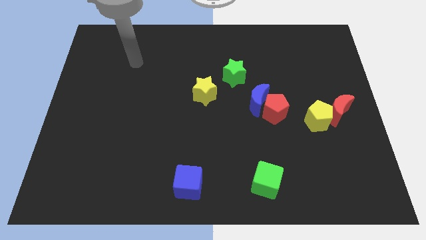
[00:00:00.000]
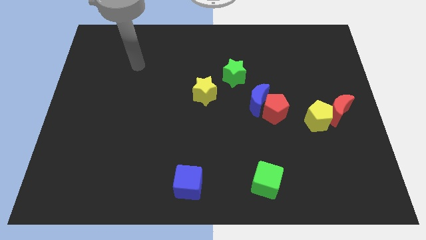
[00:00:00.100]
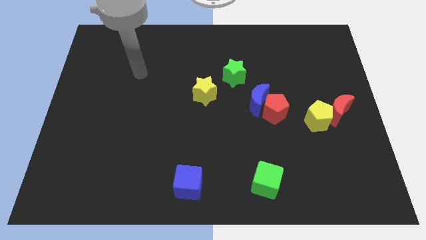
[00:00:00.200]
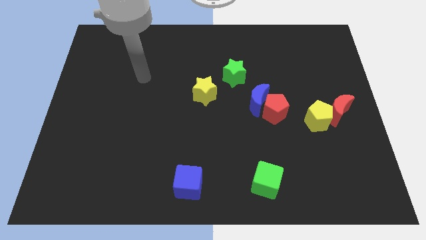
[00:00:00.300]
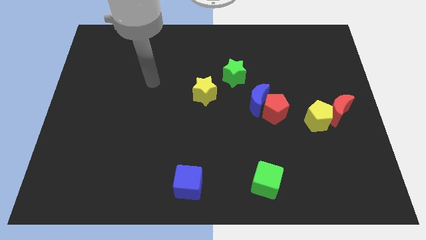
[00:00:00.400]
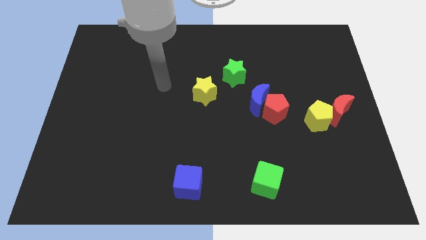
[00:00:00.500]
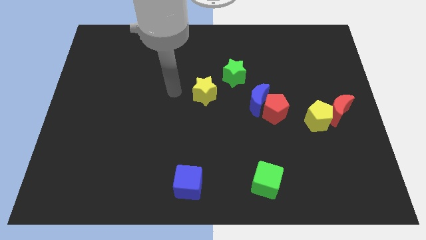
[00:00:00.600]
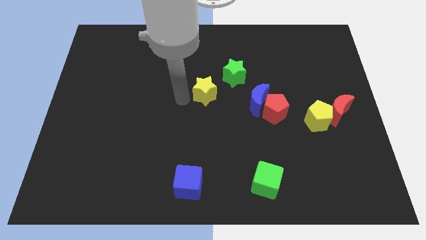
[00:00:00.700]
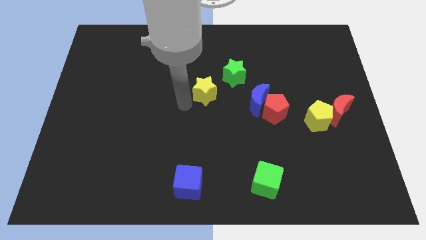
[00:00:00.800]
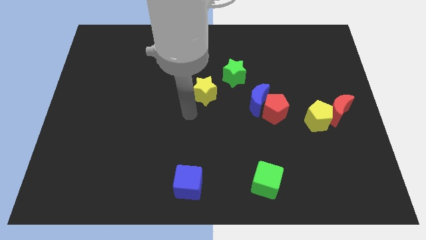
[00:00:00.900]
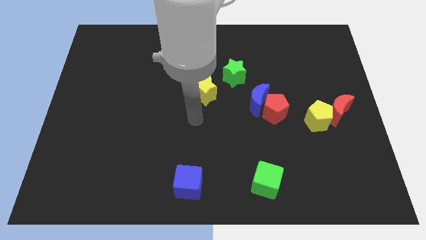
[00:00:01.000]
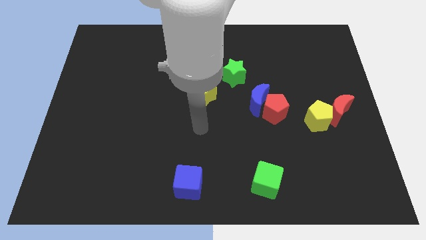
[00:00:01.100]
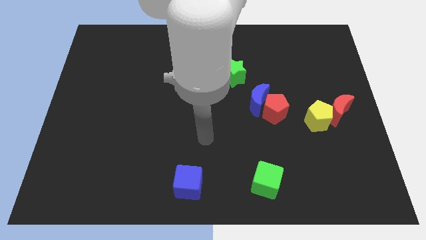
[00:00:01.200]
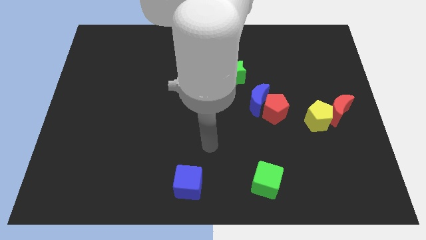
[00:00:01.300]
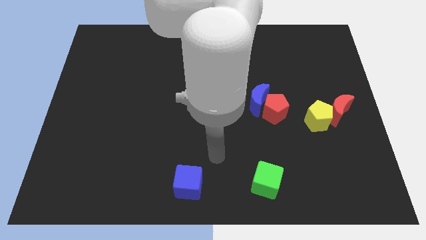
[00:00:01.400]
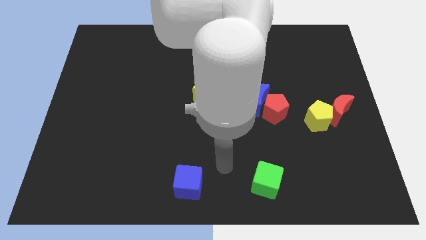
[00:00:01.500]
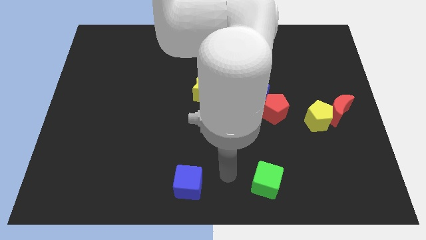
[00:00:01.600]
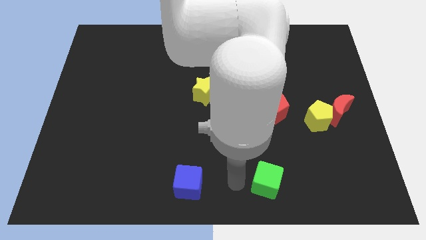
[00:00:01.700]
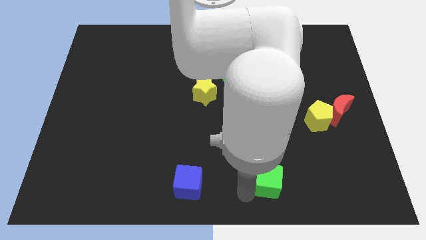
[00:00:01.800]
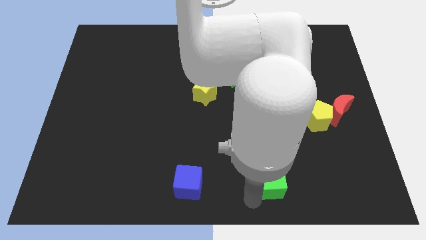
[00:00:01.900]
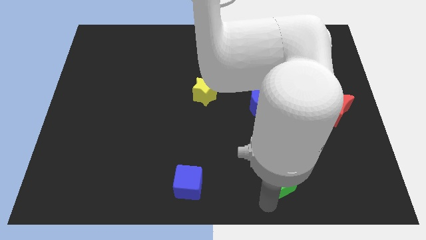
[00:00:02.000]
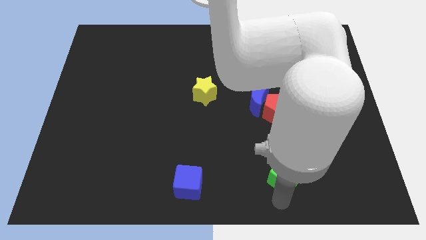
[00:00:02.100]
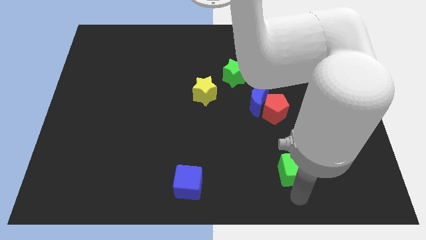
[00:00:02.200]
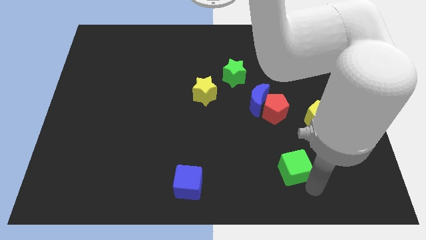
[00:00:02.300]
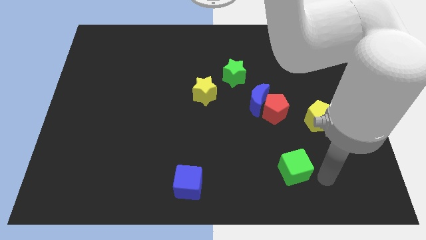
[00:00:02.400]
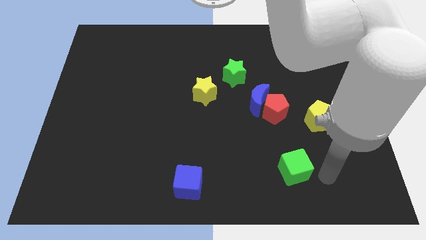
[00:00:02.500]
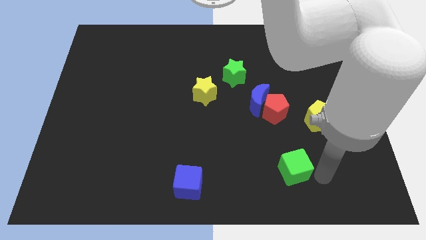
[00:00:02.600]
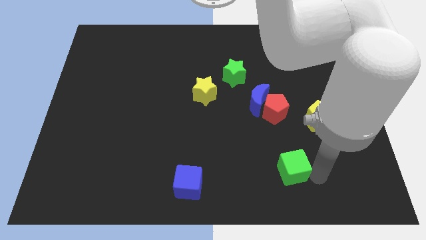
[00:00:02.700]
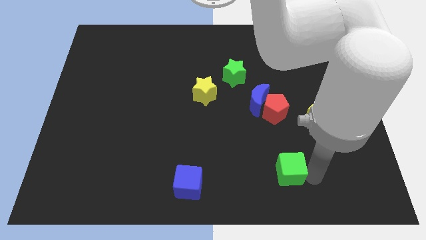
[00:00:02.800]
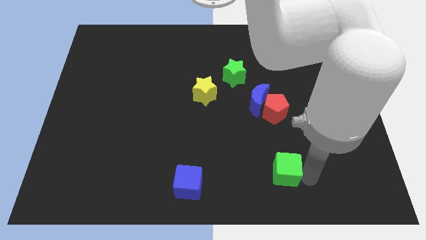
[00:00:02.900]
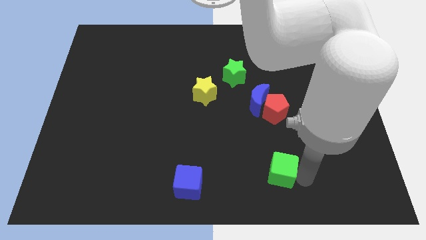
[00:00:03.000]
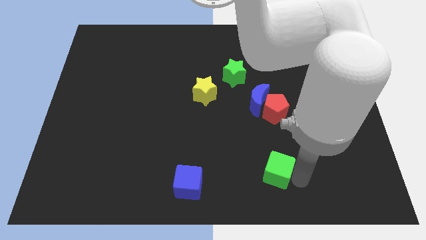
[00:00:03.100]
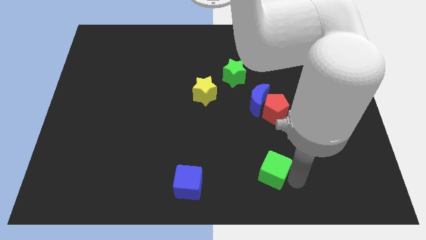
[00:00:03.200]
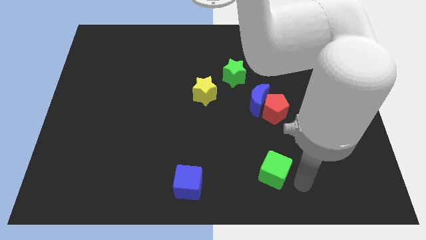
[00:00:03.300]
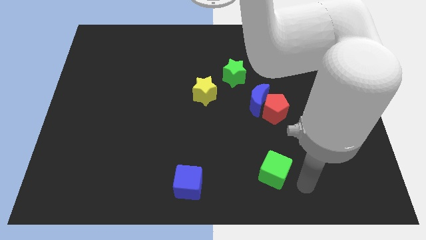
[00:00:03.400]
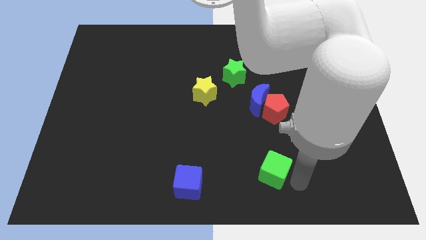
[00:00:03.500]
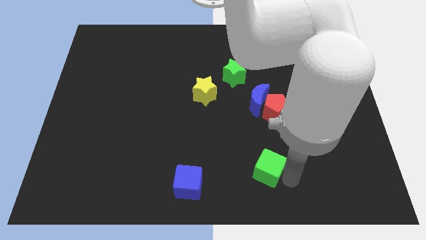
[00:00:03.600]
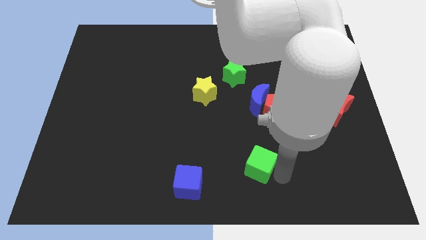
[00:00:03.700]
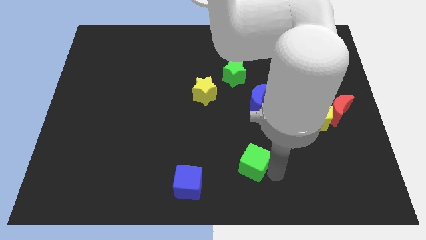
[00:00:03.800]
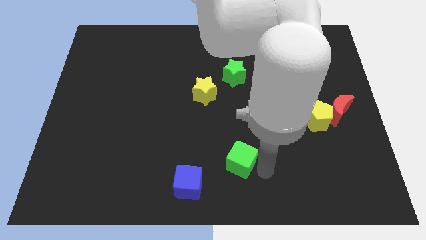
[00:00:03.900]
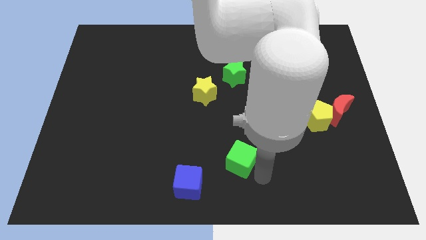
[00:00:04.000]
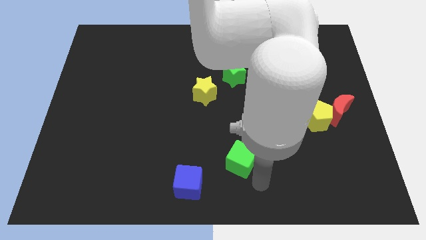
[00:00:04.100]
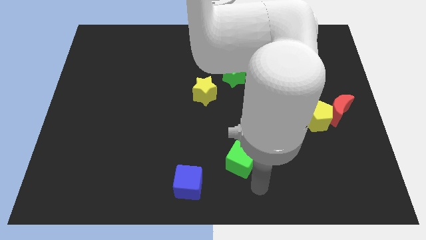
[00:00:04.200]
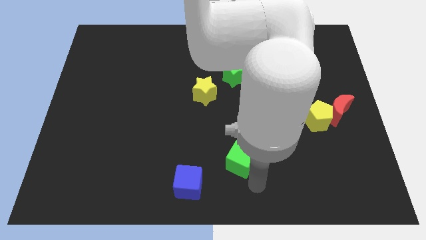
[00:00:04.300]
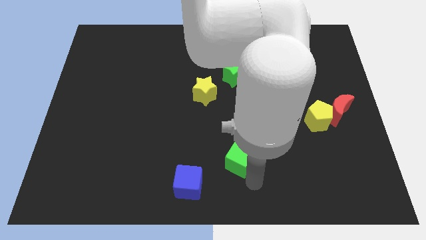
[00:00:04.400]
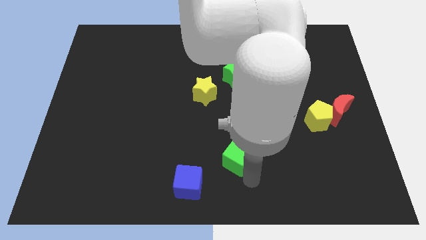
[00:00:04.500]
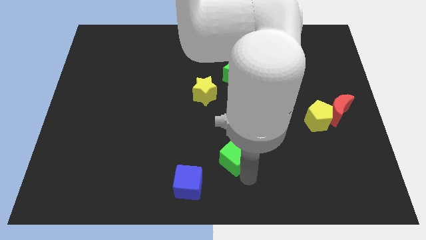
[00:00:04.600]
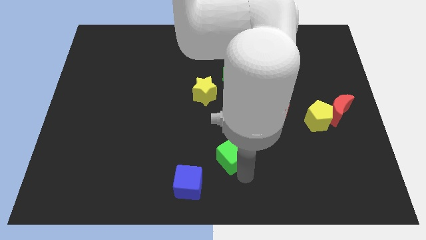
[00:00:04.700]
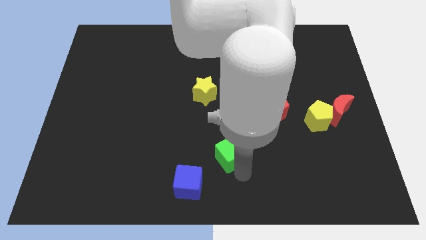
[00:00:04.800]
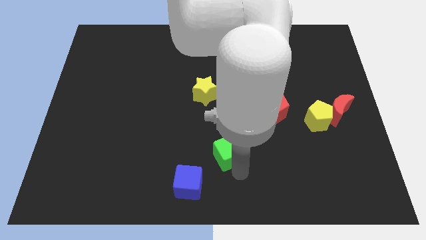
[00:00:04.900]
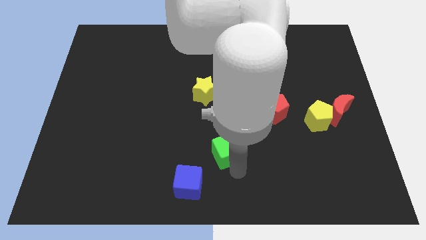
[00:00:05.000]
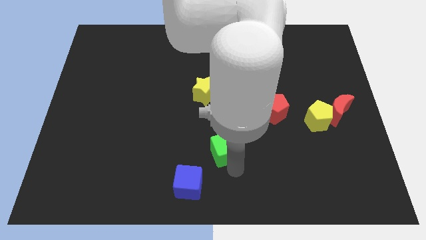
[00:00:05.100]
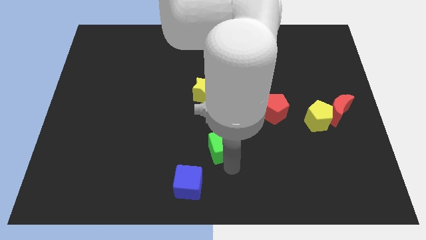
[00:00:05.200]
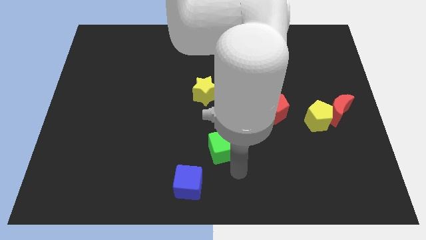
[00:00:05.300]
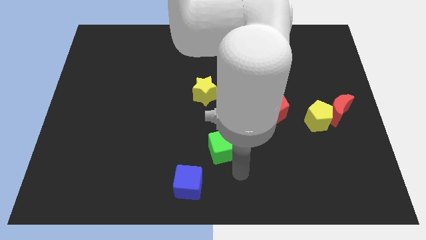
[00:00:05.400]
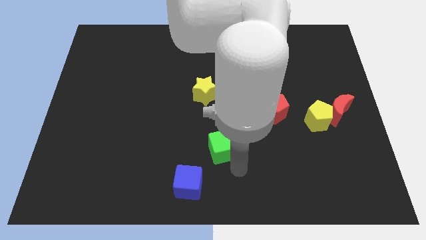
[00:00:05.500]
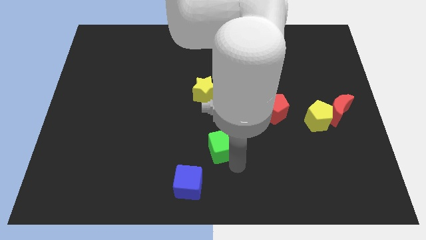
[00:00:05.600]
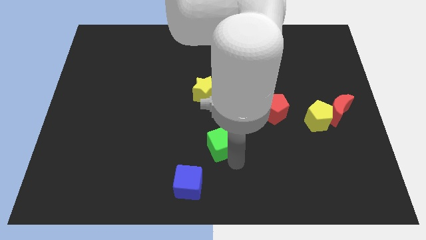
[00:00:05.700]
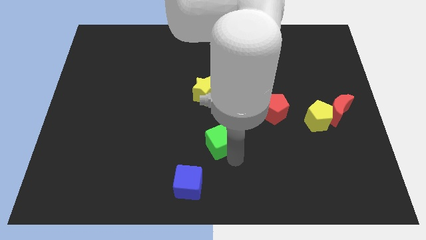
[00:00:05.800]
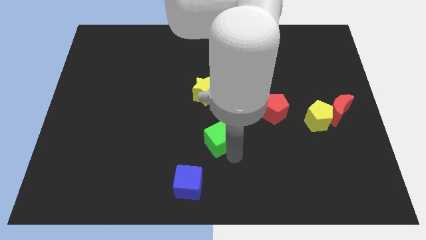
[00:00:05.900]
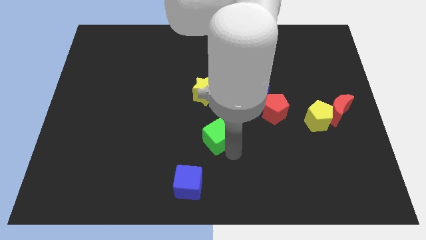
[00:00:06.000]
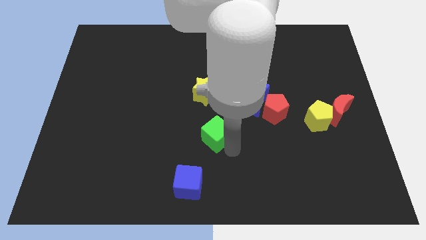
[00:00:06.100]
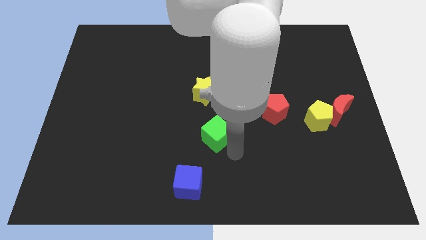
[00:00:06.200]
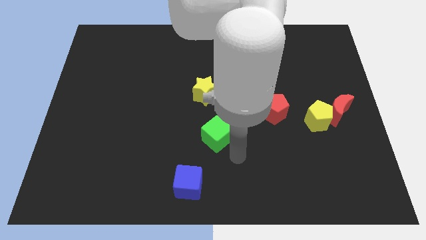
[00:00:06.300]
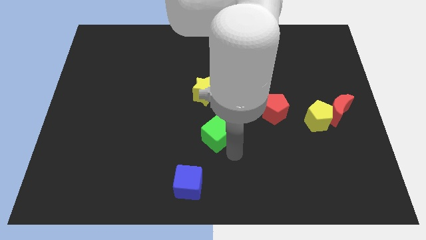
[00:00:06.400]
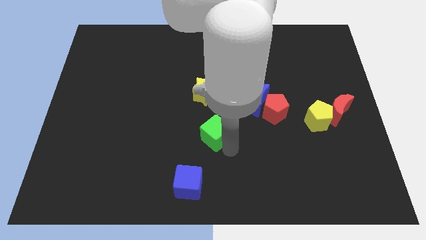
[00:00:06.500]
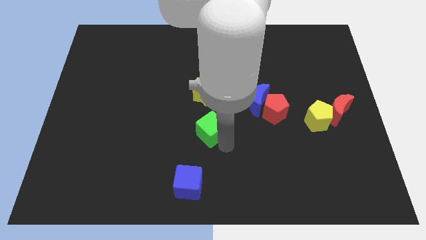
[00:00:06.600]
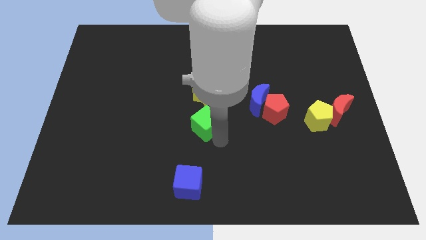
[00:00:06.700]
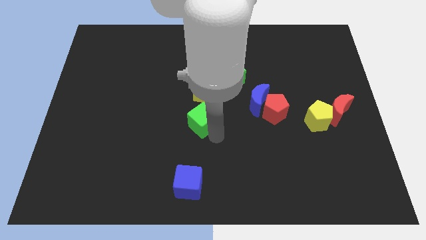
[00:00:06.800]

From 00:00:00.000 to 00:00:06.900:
push the green cube diagonally upwards and left

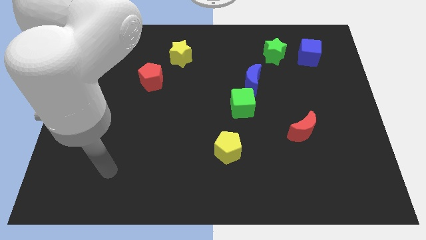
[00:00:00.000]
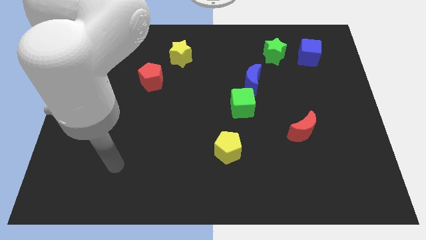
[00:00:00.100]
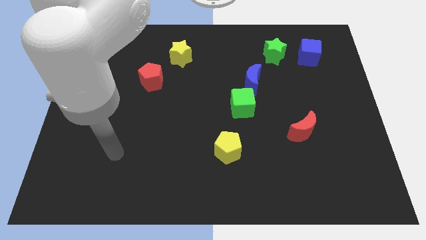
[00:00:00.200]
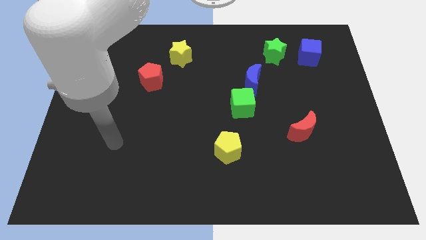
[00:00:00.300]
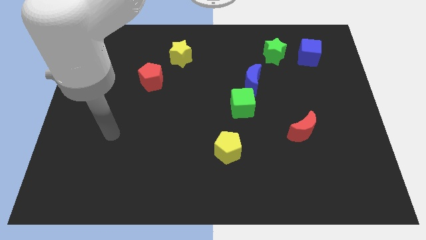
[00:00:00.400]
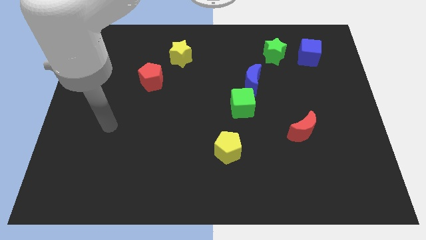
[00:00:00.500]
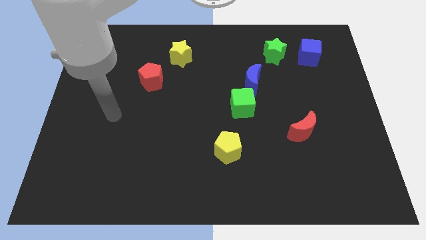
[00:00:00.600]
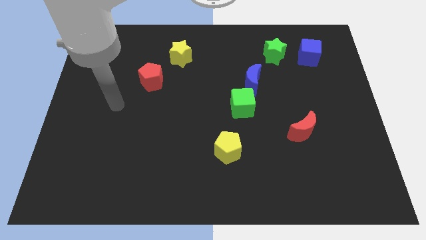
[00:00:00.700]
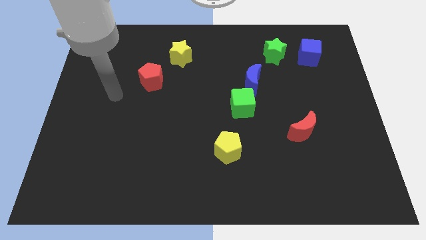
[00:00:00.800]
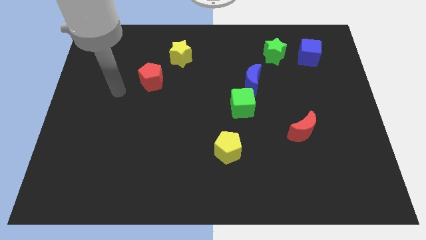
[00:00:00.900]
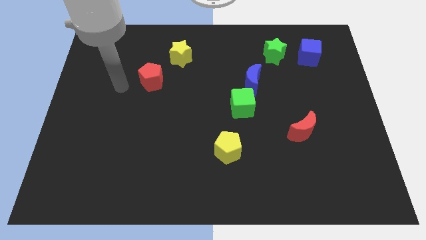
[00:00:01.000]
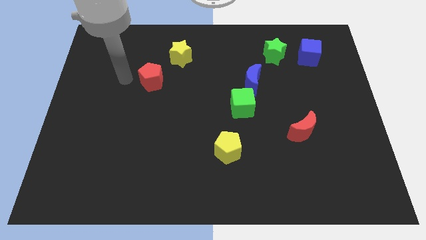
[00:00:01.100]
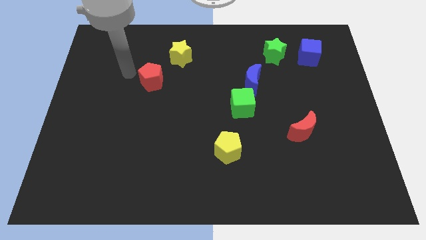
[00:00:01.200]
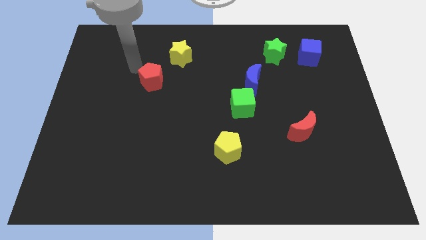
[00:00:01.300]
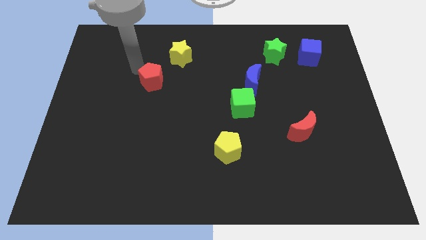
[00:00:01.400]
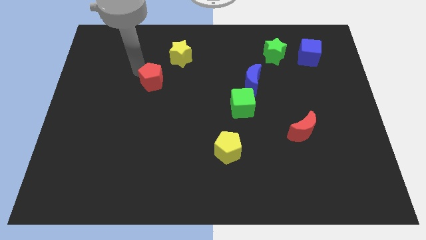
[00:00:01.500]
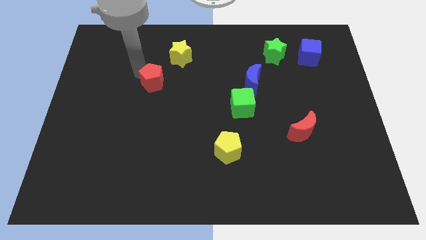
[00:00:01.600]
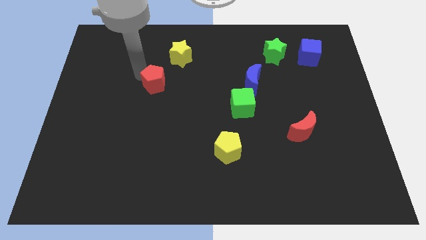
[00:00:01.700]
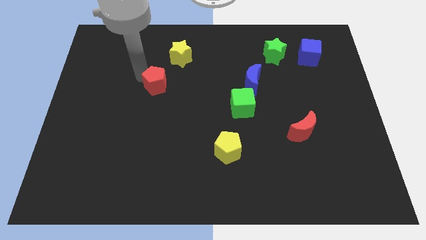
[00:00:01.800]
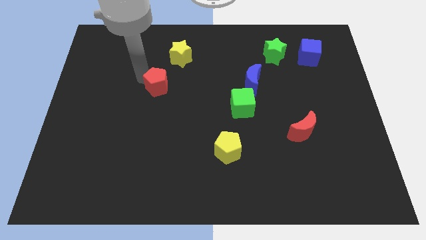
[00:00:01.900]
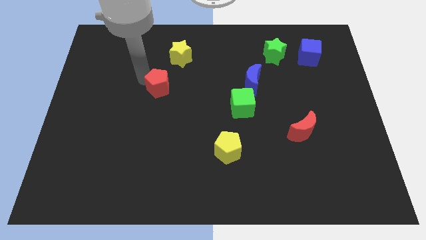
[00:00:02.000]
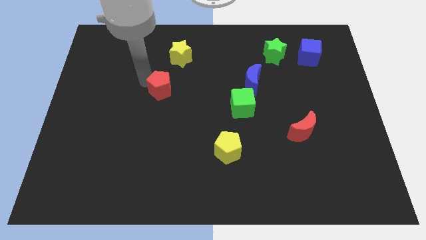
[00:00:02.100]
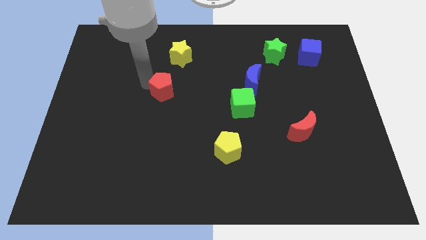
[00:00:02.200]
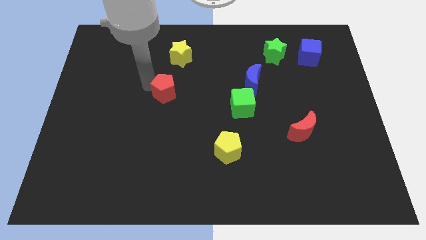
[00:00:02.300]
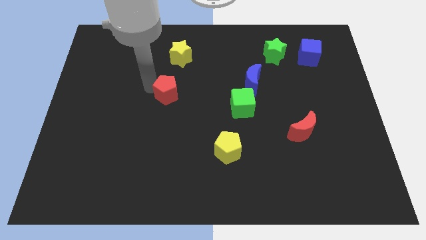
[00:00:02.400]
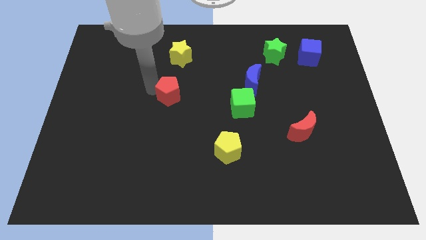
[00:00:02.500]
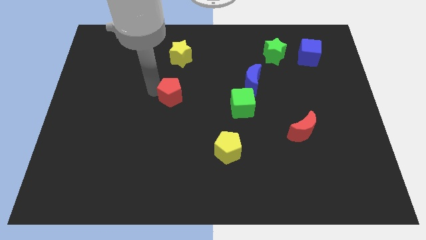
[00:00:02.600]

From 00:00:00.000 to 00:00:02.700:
slightly move the red pentagon down and to the right
